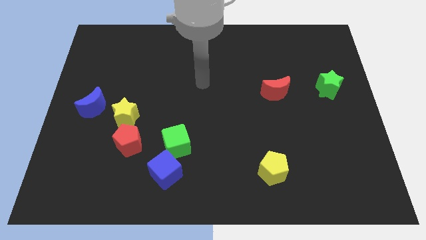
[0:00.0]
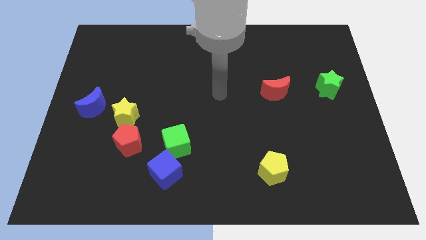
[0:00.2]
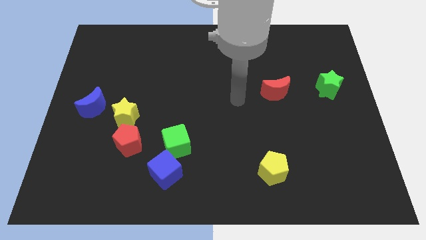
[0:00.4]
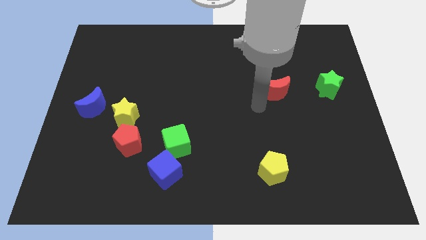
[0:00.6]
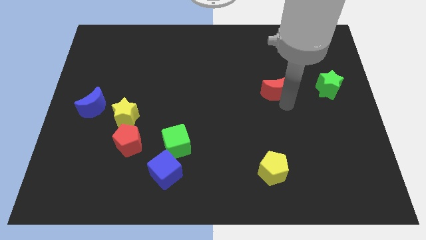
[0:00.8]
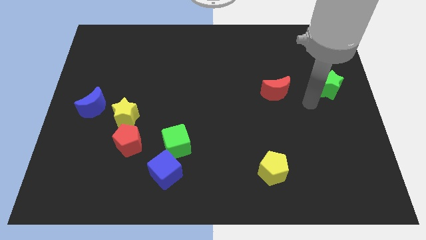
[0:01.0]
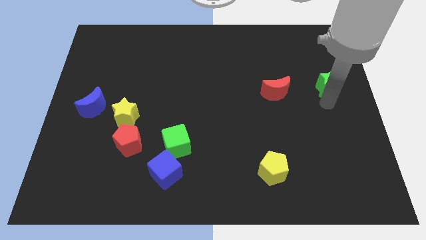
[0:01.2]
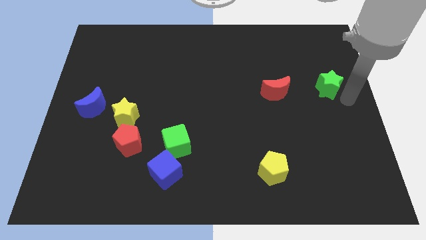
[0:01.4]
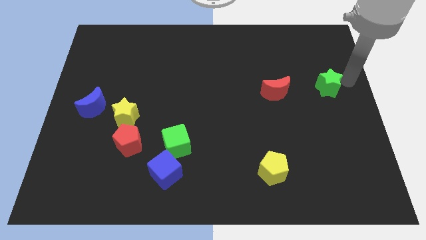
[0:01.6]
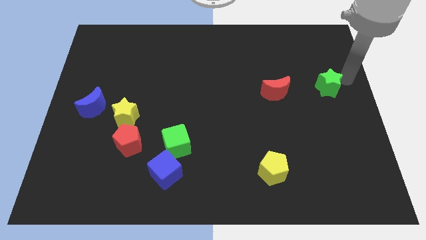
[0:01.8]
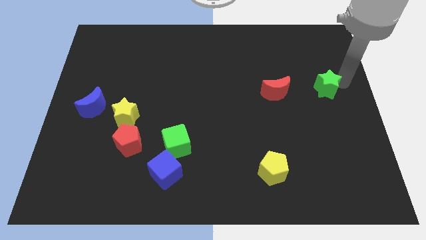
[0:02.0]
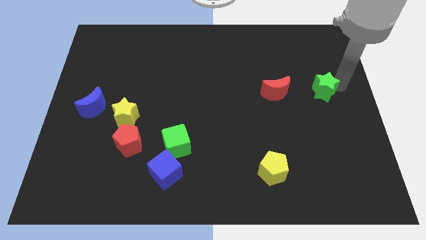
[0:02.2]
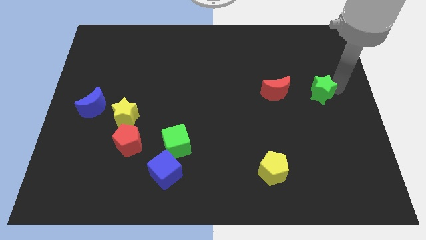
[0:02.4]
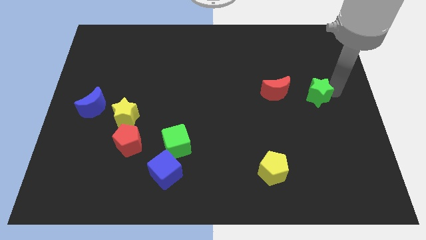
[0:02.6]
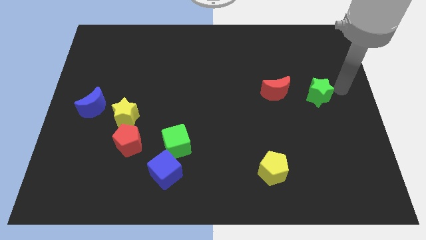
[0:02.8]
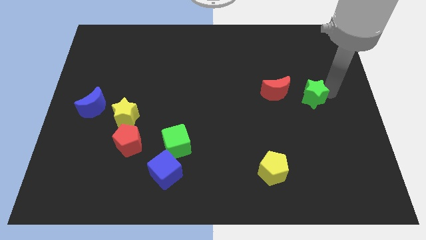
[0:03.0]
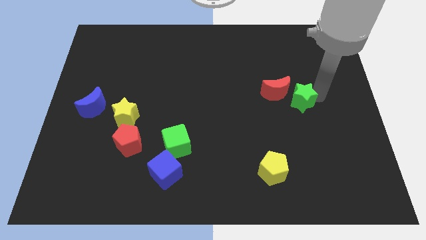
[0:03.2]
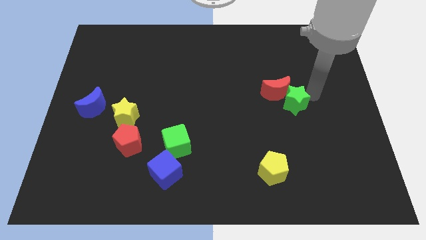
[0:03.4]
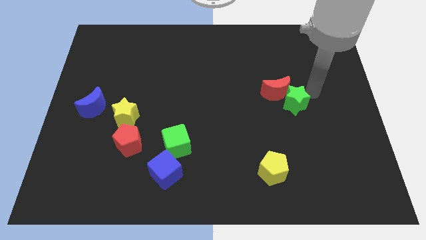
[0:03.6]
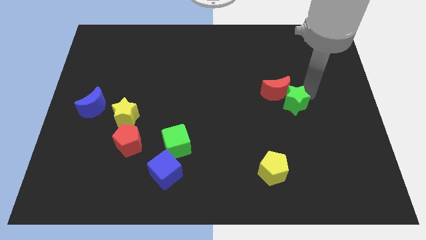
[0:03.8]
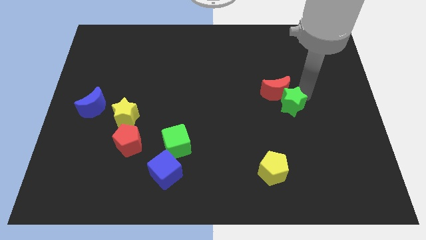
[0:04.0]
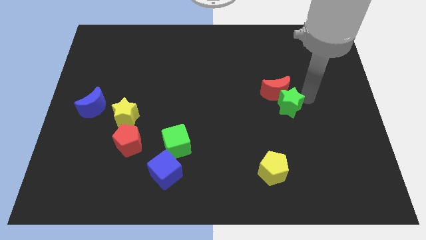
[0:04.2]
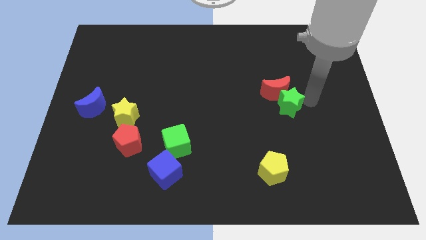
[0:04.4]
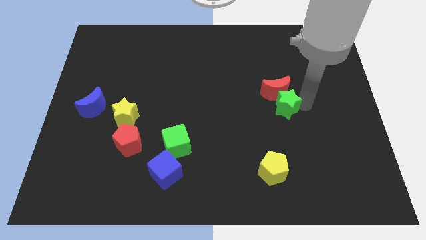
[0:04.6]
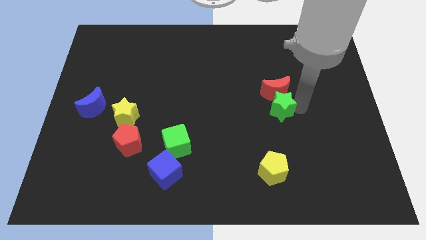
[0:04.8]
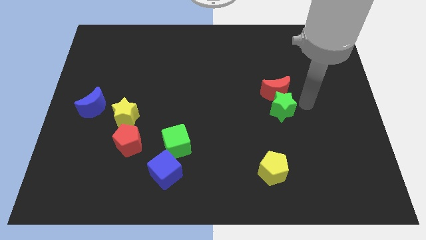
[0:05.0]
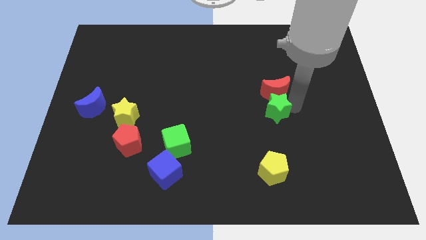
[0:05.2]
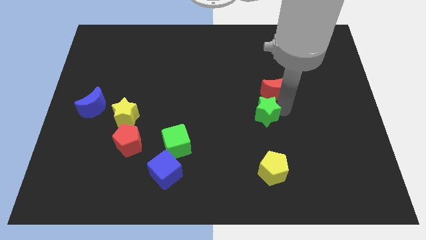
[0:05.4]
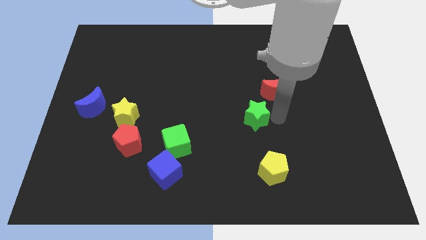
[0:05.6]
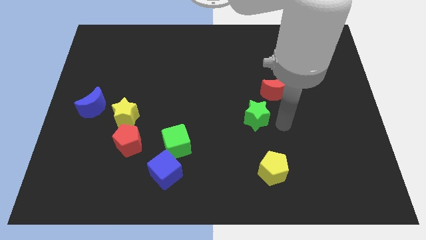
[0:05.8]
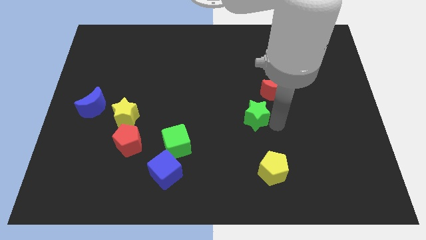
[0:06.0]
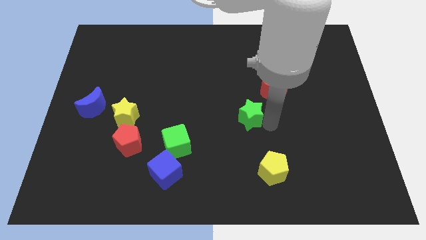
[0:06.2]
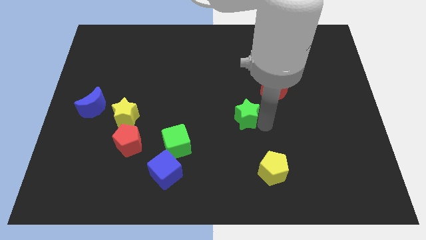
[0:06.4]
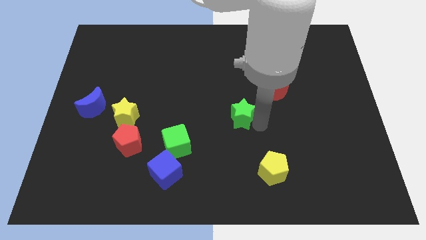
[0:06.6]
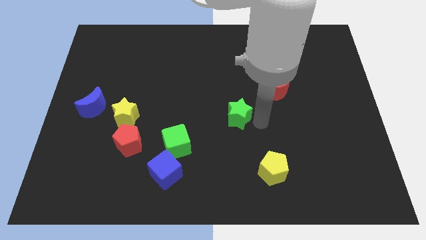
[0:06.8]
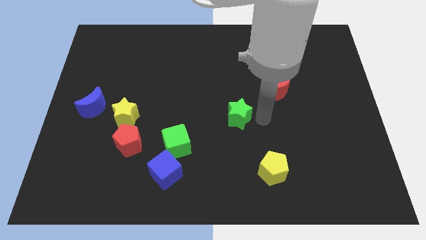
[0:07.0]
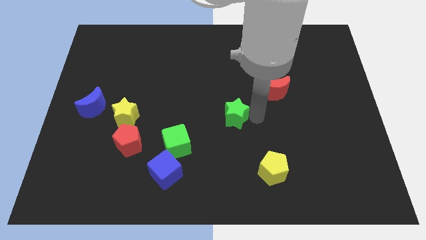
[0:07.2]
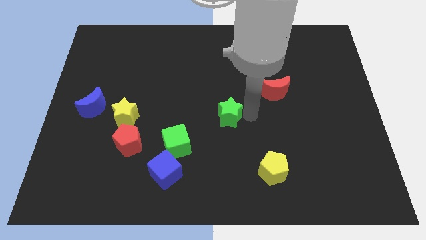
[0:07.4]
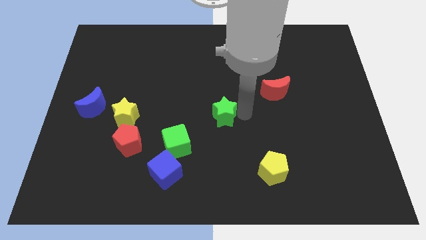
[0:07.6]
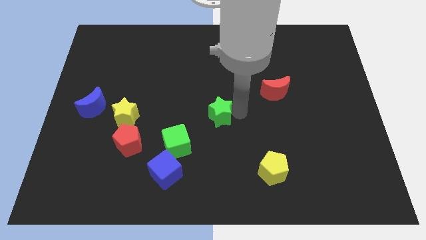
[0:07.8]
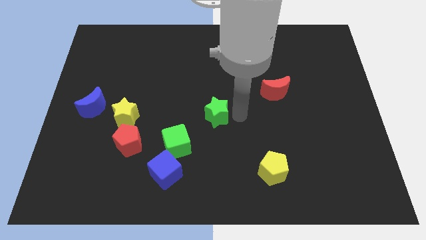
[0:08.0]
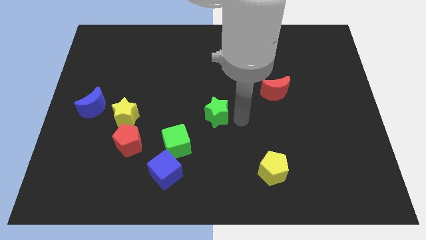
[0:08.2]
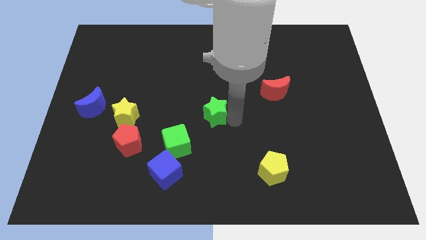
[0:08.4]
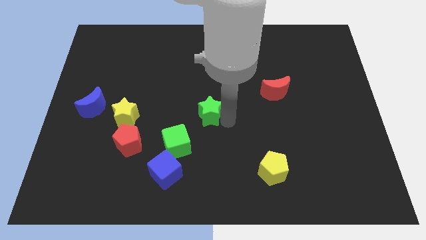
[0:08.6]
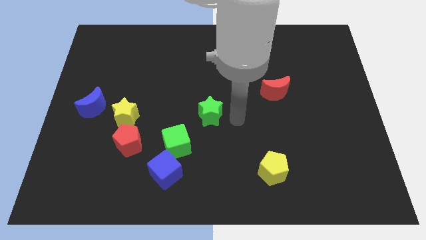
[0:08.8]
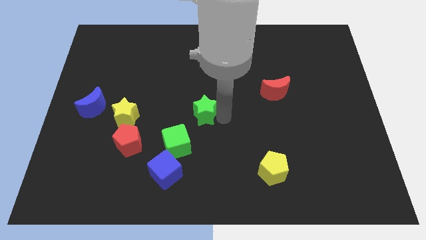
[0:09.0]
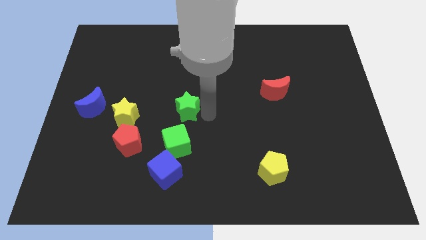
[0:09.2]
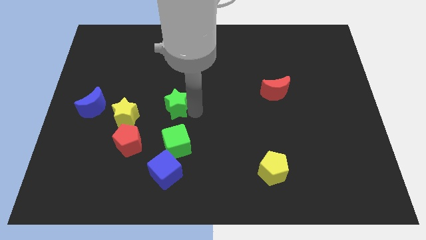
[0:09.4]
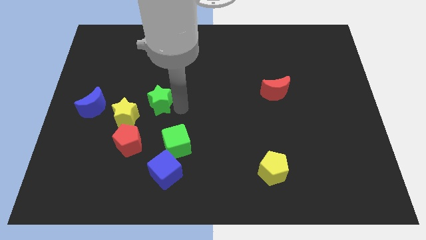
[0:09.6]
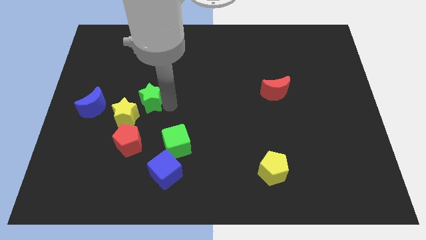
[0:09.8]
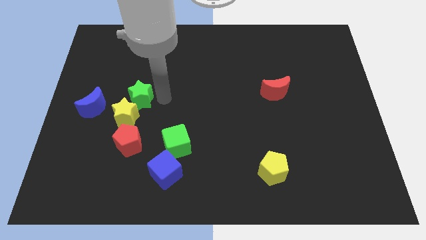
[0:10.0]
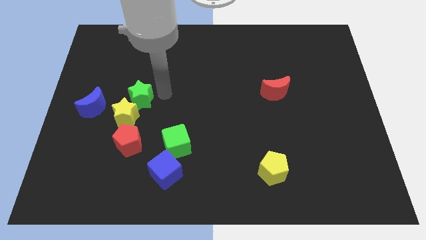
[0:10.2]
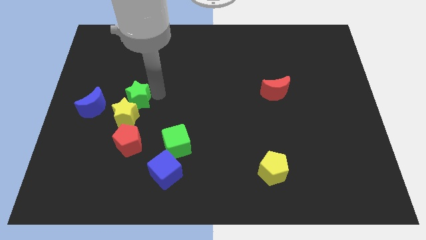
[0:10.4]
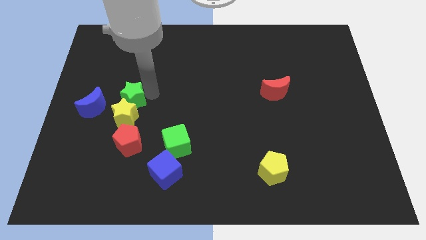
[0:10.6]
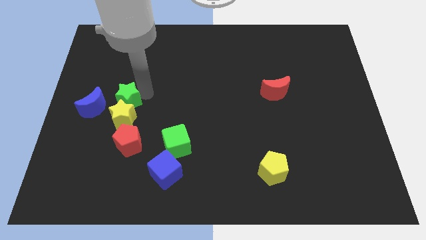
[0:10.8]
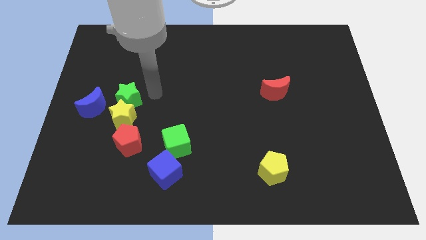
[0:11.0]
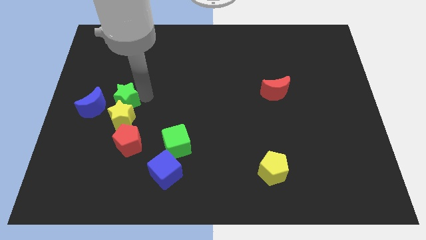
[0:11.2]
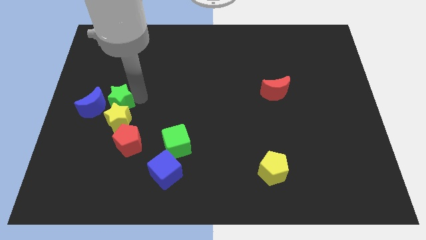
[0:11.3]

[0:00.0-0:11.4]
push the green star towards the blue moon

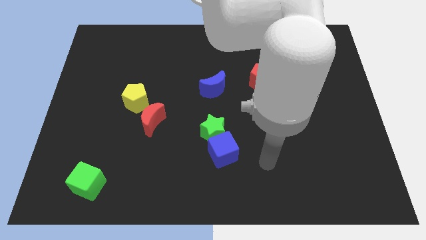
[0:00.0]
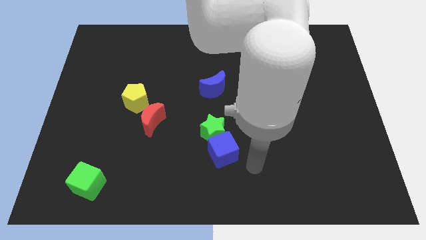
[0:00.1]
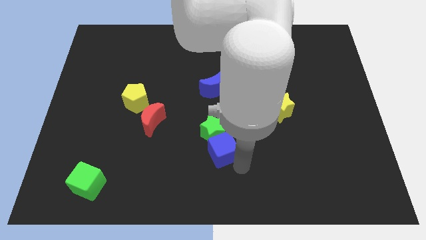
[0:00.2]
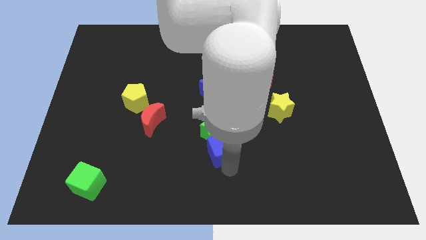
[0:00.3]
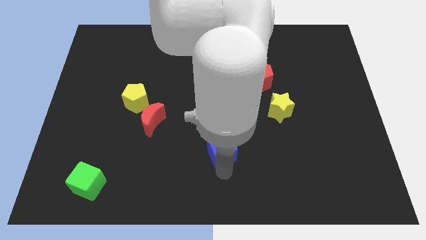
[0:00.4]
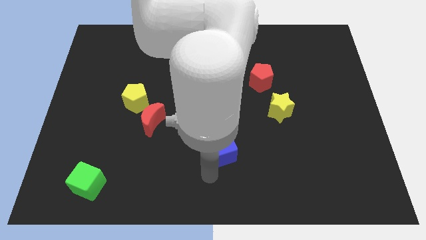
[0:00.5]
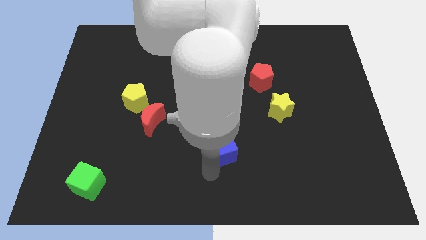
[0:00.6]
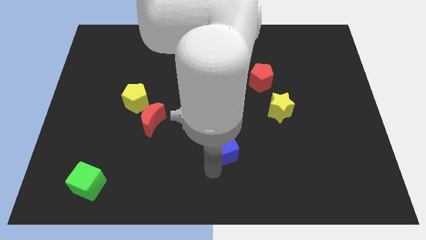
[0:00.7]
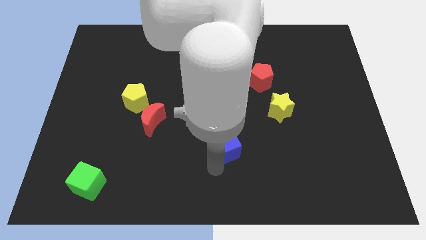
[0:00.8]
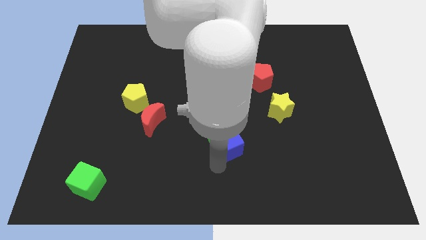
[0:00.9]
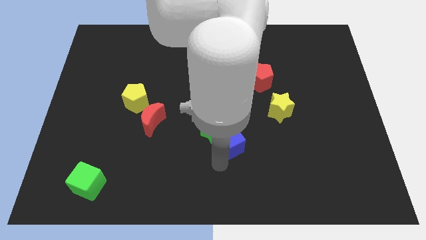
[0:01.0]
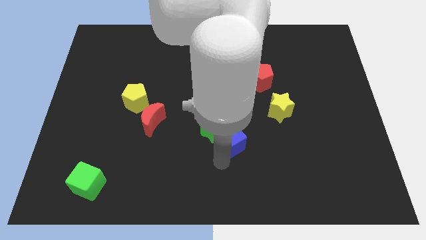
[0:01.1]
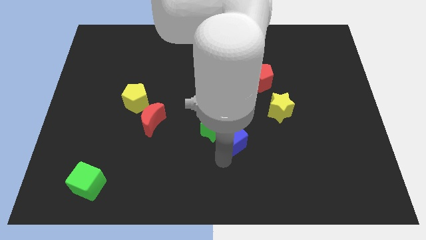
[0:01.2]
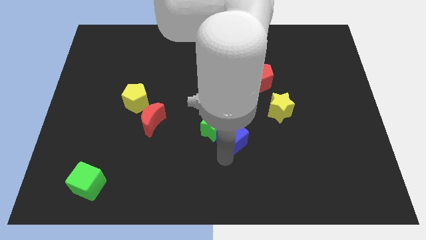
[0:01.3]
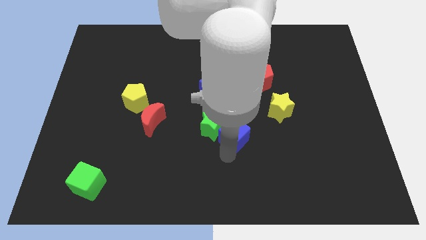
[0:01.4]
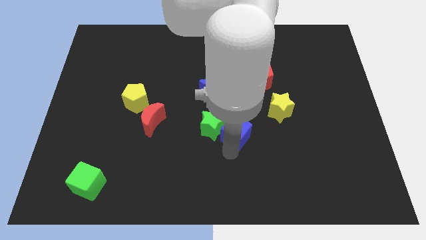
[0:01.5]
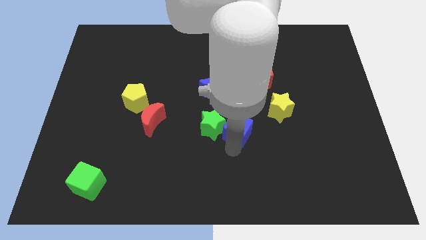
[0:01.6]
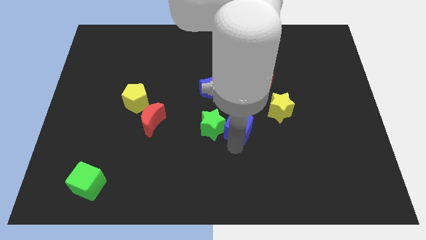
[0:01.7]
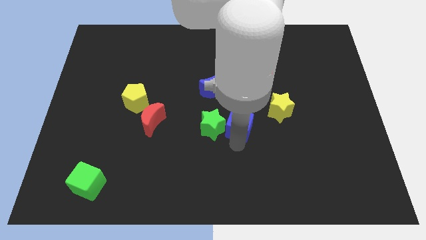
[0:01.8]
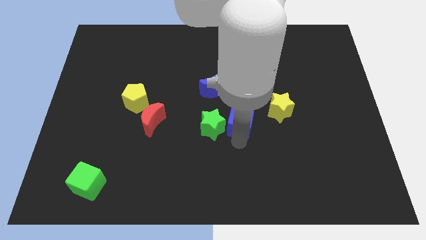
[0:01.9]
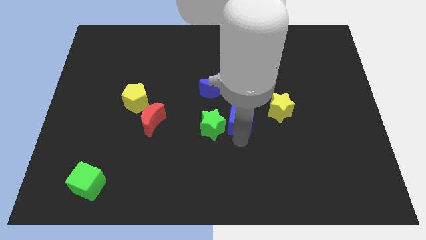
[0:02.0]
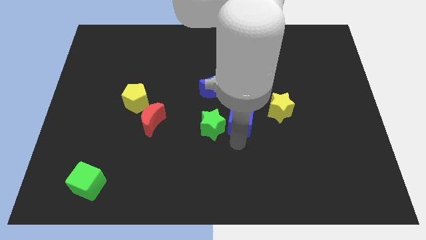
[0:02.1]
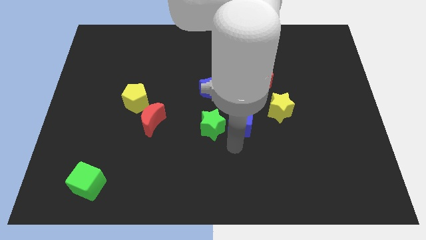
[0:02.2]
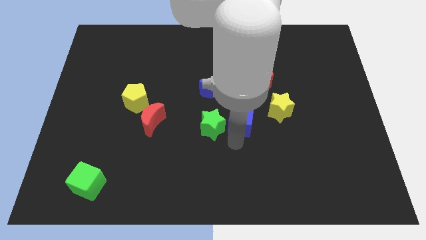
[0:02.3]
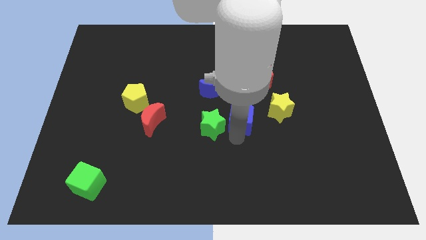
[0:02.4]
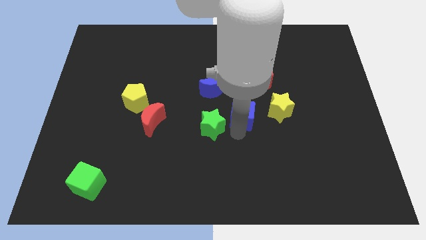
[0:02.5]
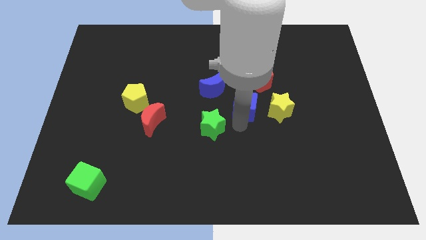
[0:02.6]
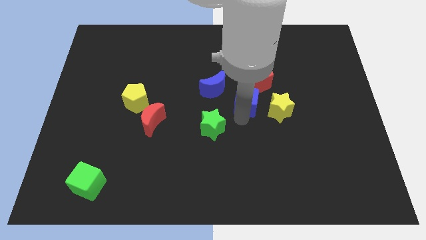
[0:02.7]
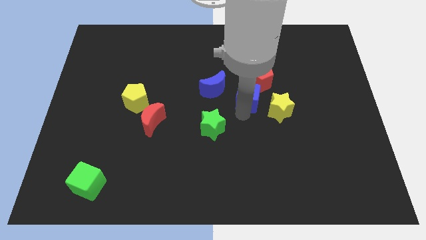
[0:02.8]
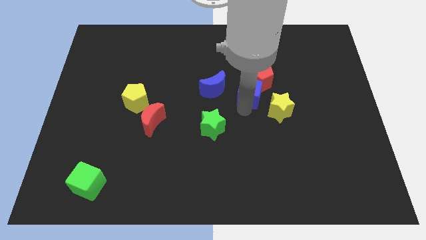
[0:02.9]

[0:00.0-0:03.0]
push the blue cube to the red pentagon
